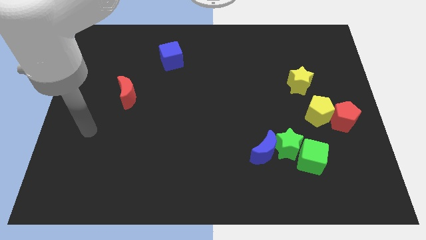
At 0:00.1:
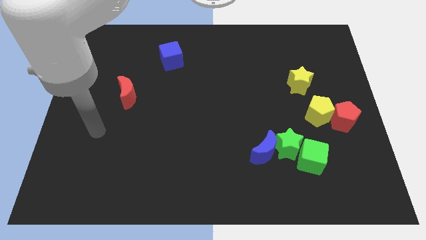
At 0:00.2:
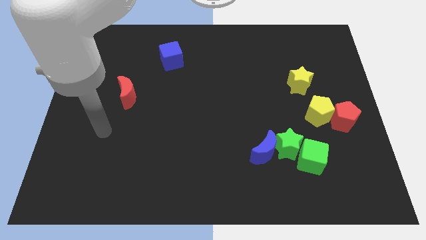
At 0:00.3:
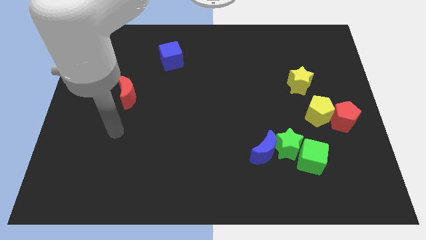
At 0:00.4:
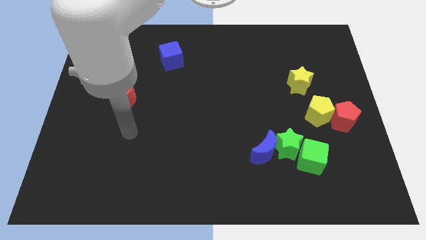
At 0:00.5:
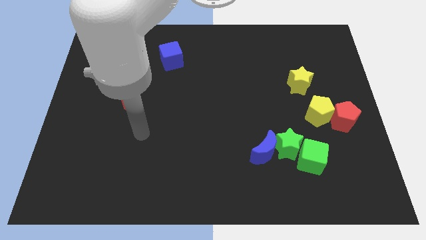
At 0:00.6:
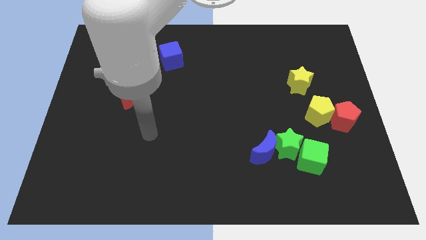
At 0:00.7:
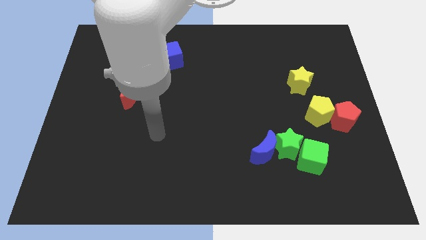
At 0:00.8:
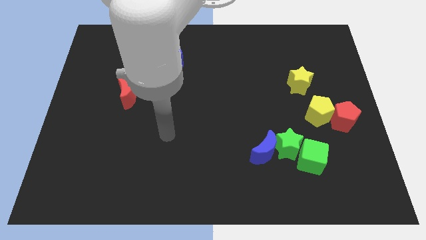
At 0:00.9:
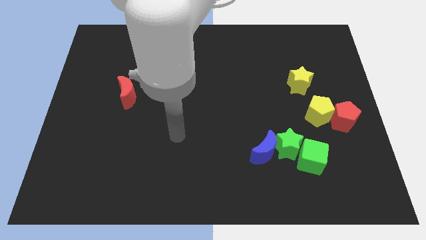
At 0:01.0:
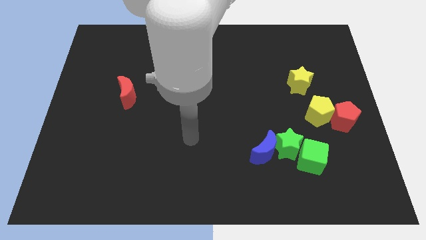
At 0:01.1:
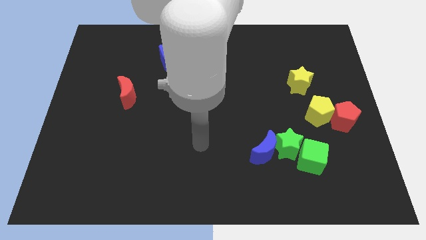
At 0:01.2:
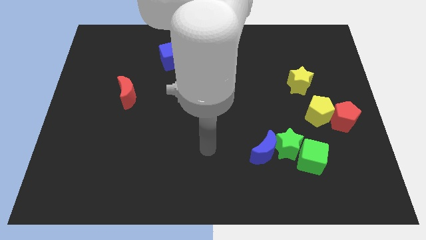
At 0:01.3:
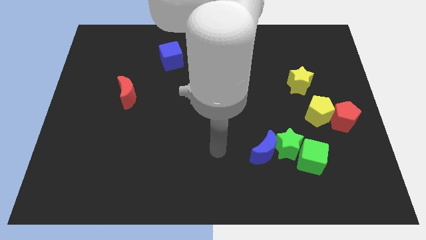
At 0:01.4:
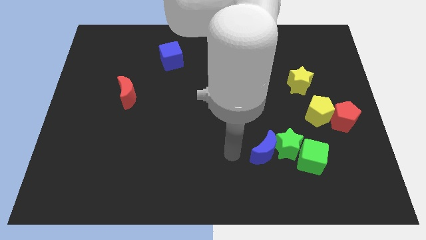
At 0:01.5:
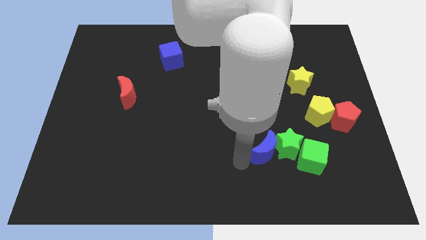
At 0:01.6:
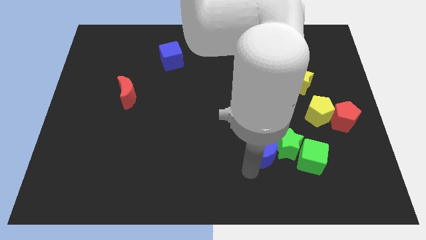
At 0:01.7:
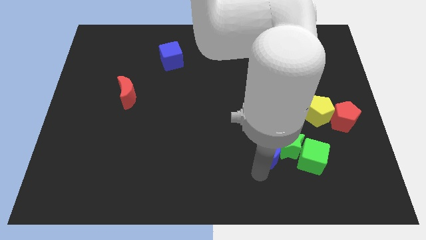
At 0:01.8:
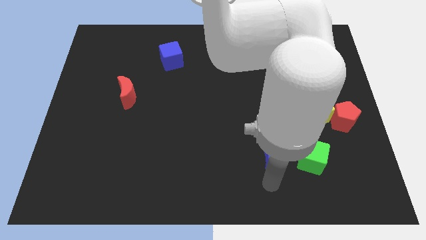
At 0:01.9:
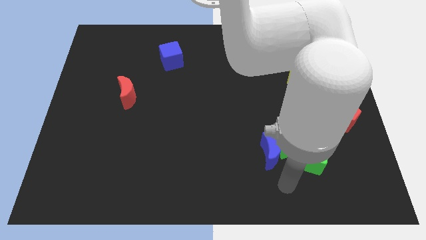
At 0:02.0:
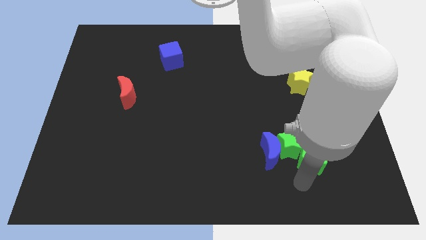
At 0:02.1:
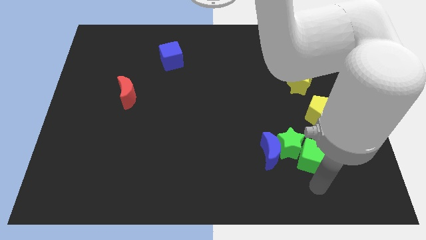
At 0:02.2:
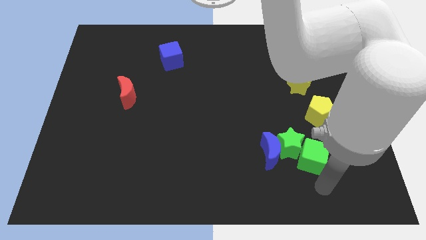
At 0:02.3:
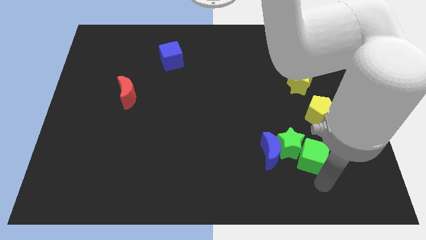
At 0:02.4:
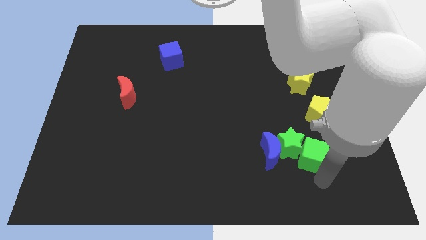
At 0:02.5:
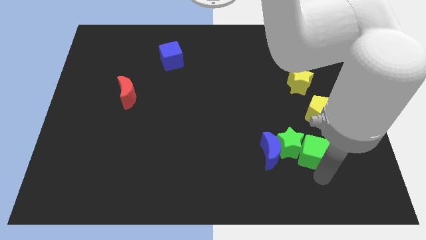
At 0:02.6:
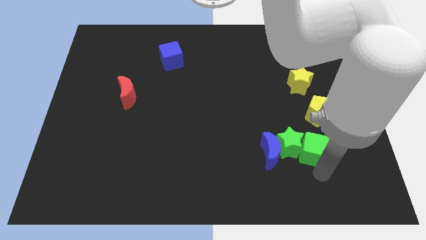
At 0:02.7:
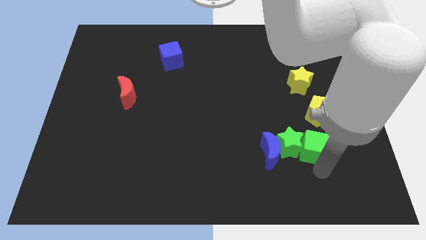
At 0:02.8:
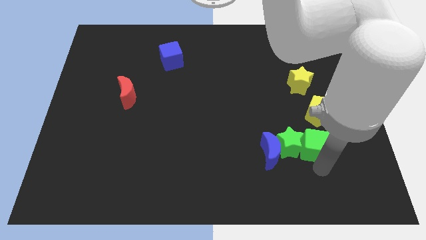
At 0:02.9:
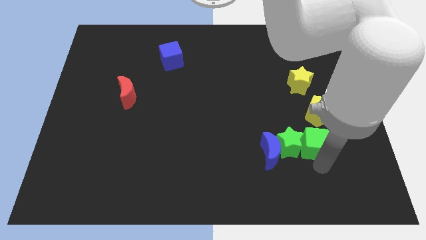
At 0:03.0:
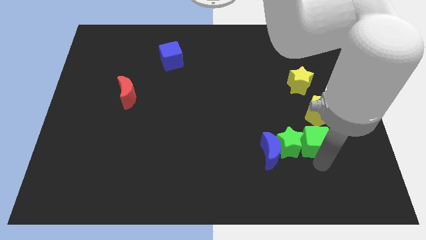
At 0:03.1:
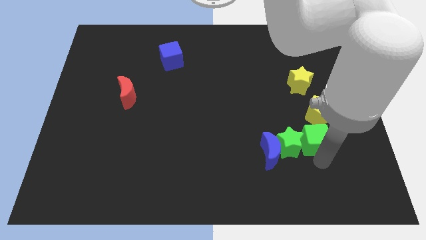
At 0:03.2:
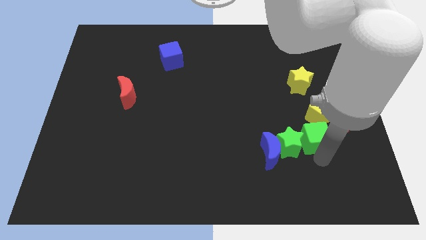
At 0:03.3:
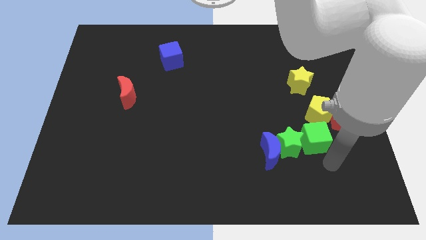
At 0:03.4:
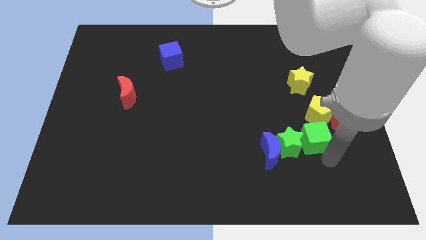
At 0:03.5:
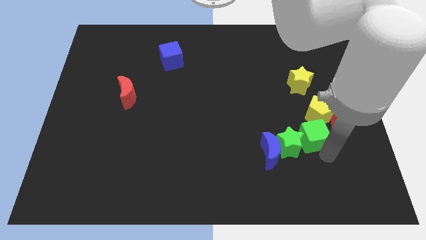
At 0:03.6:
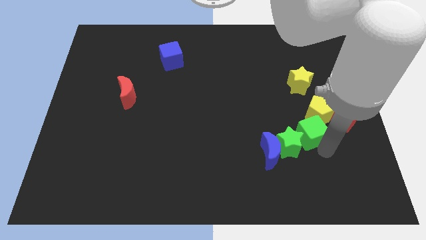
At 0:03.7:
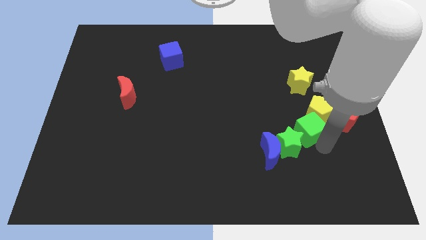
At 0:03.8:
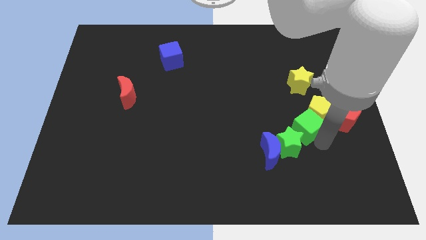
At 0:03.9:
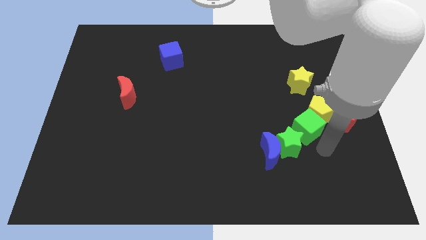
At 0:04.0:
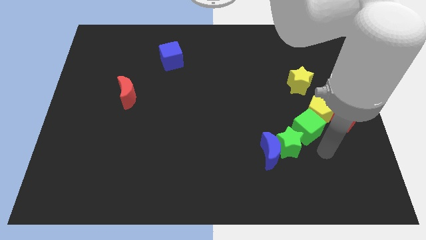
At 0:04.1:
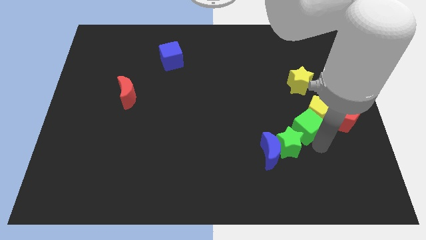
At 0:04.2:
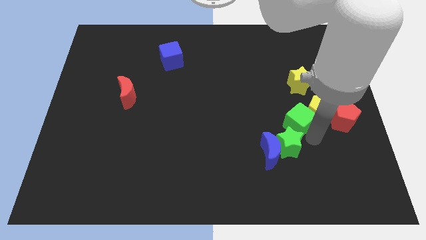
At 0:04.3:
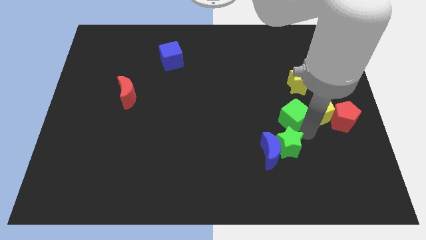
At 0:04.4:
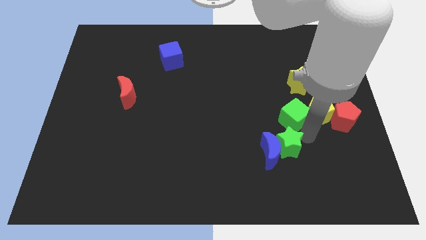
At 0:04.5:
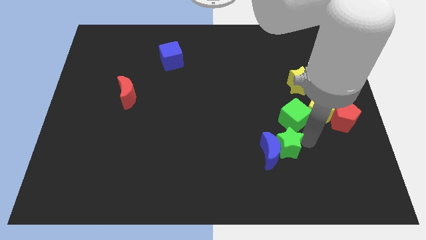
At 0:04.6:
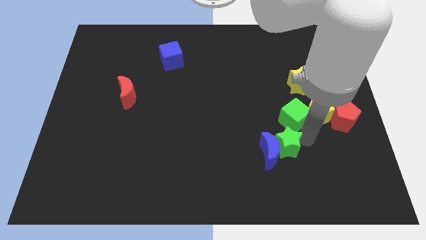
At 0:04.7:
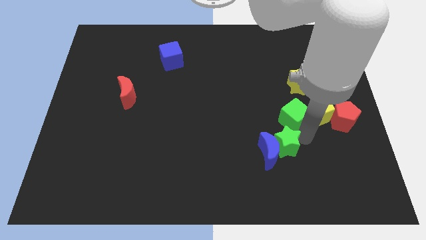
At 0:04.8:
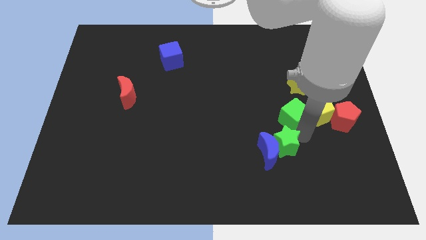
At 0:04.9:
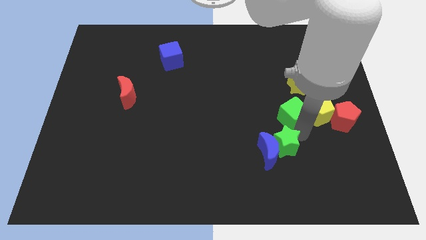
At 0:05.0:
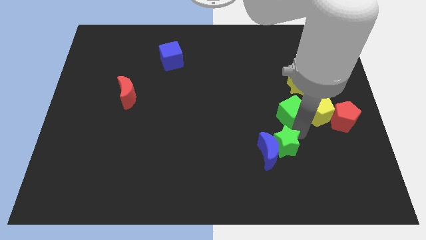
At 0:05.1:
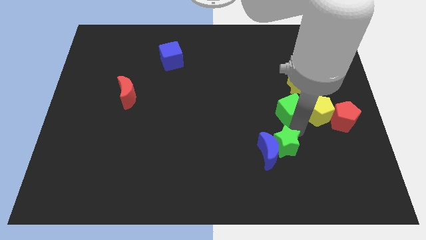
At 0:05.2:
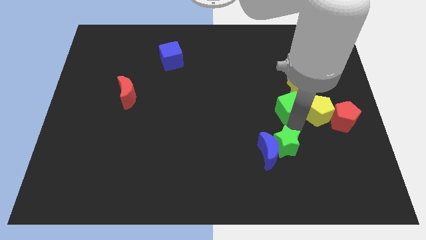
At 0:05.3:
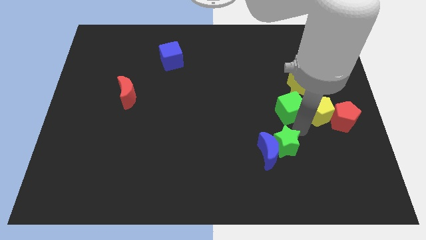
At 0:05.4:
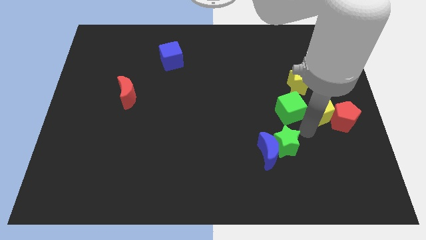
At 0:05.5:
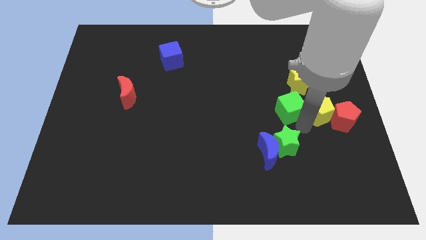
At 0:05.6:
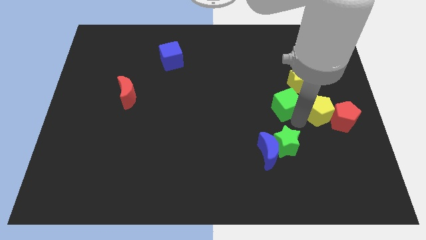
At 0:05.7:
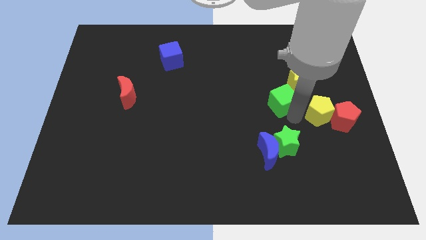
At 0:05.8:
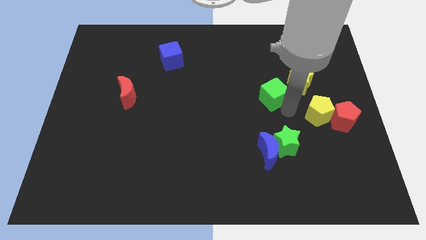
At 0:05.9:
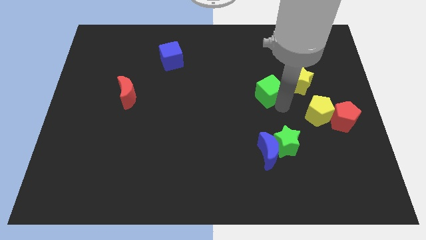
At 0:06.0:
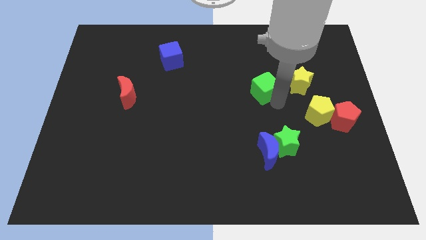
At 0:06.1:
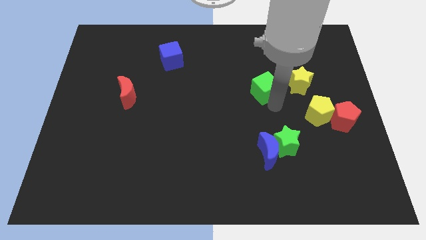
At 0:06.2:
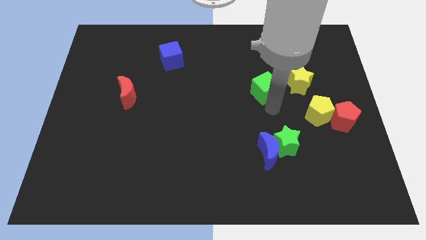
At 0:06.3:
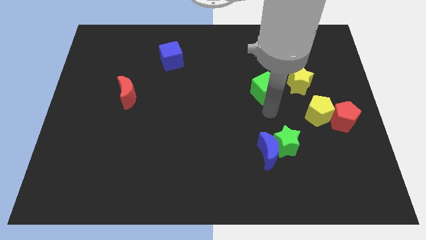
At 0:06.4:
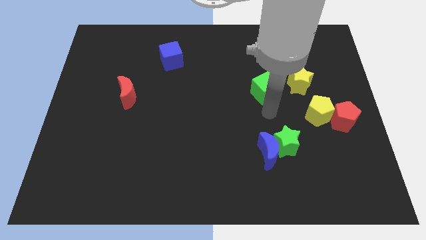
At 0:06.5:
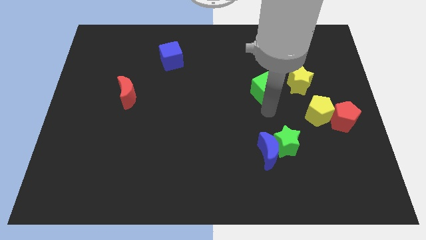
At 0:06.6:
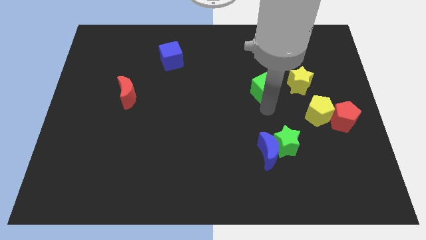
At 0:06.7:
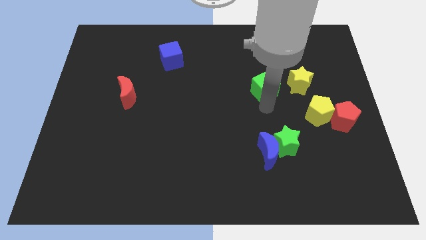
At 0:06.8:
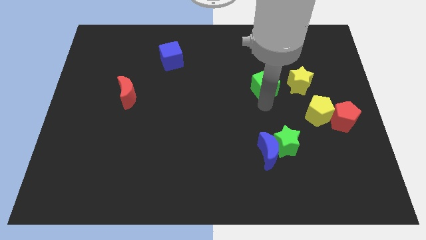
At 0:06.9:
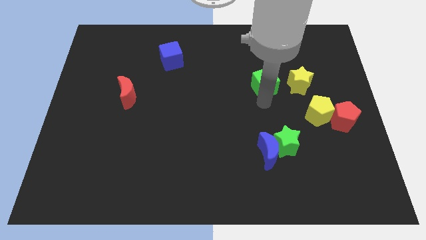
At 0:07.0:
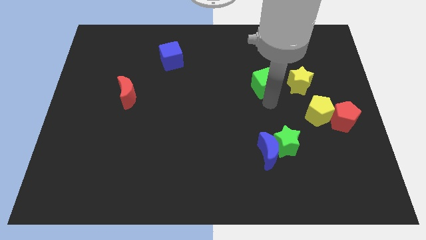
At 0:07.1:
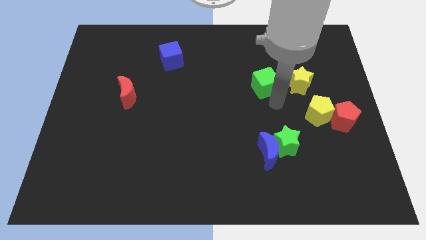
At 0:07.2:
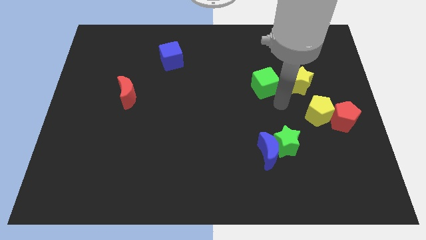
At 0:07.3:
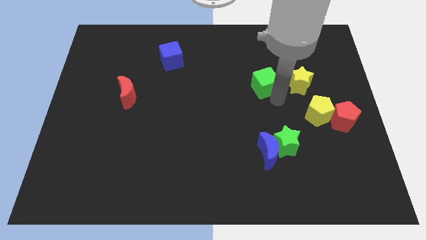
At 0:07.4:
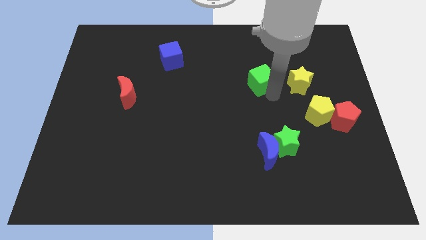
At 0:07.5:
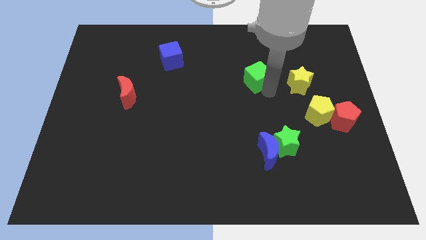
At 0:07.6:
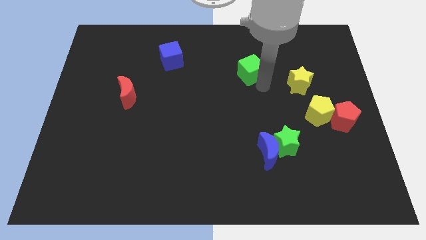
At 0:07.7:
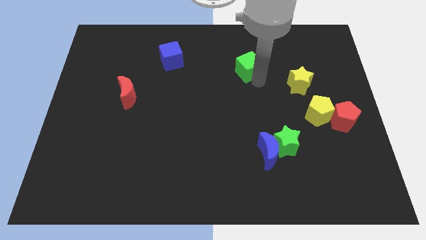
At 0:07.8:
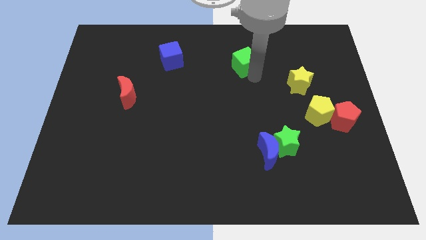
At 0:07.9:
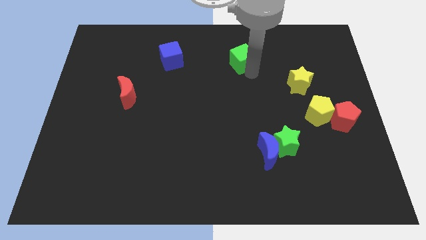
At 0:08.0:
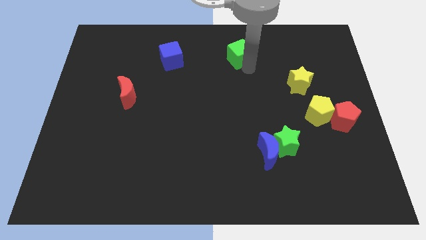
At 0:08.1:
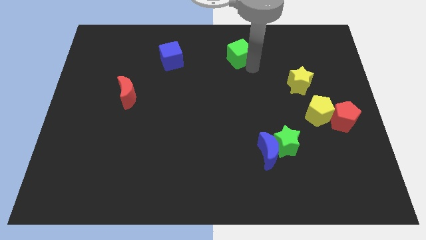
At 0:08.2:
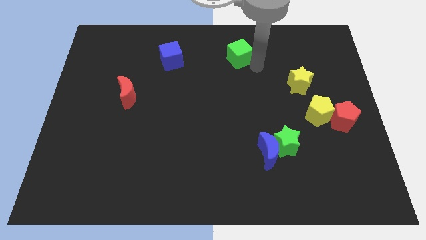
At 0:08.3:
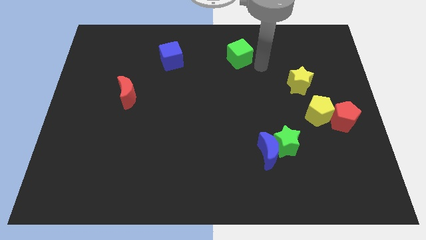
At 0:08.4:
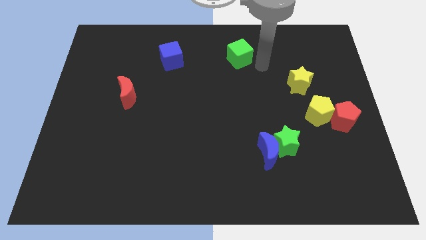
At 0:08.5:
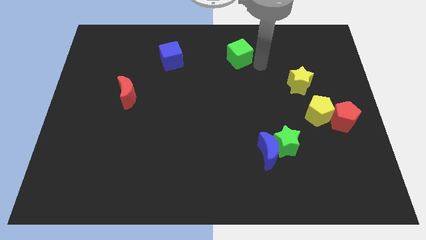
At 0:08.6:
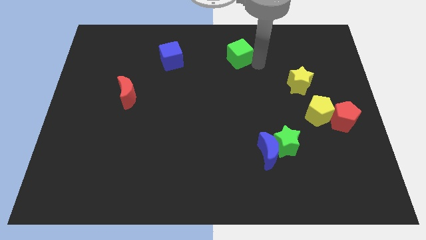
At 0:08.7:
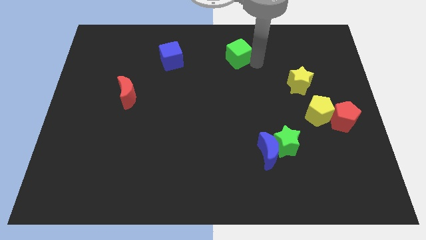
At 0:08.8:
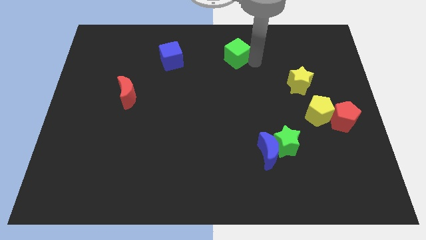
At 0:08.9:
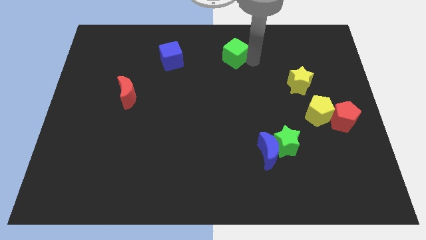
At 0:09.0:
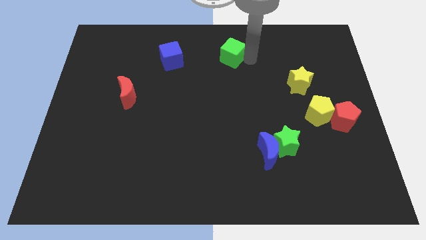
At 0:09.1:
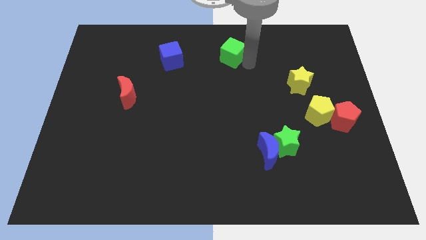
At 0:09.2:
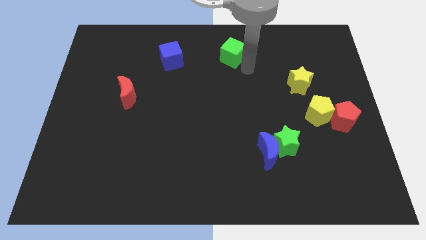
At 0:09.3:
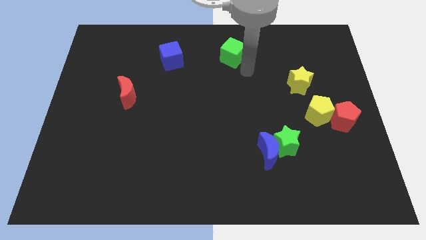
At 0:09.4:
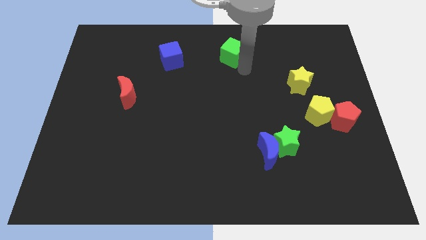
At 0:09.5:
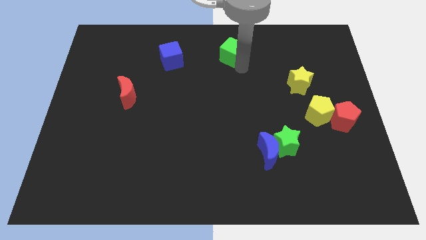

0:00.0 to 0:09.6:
slide the green cube to the top
